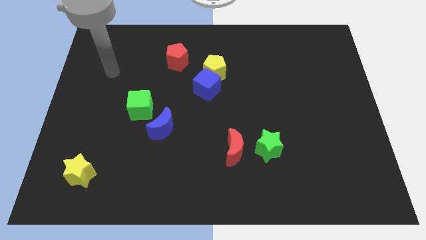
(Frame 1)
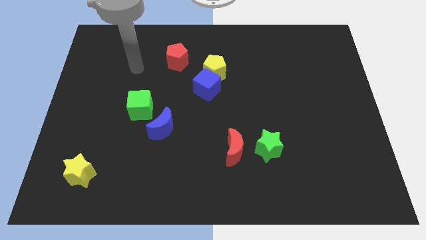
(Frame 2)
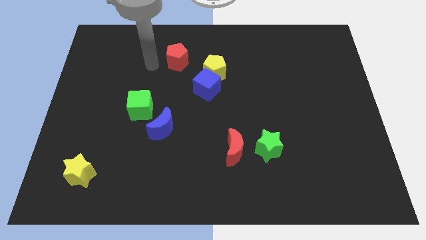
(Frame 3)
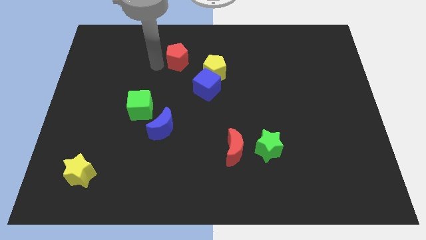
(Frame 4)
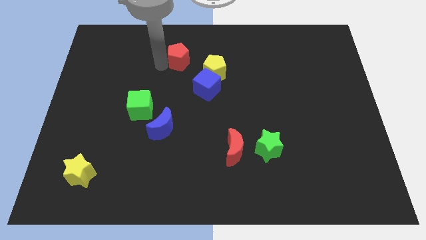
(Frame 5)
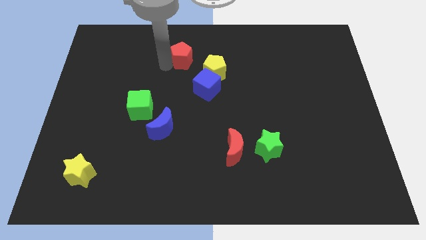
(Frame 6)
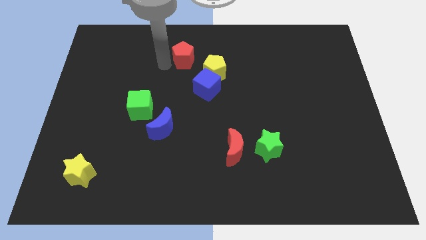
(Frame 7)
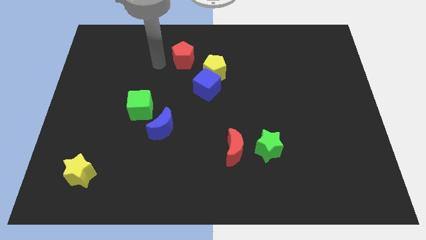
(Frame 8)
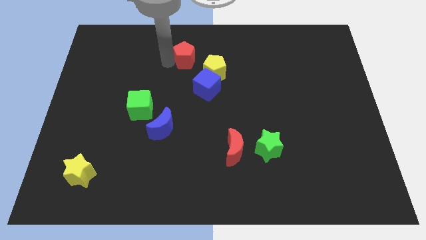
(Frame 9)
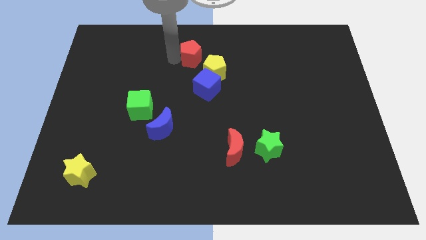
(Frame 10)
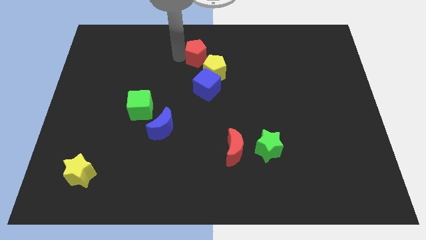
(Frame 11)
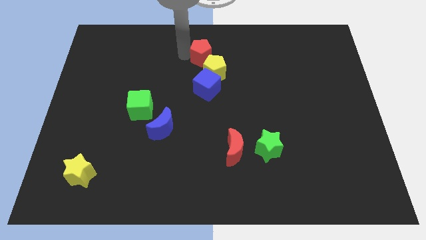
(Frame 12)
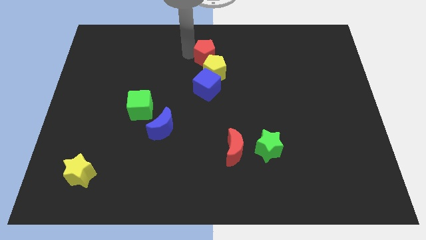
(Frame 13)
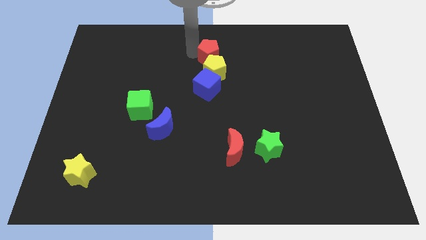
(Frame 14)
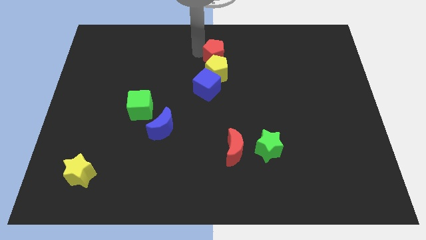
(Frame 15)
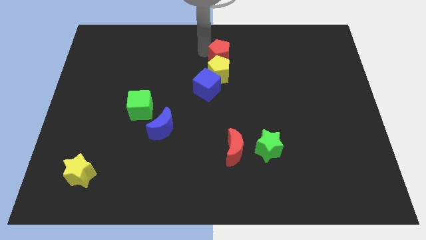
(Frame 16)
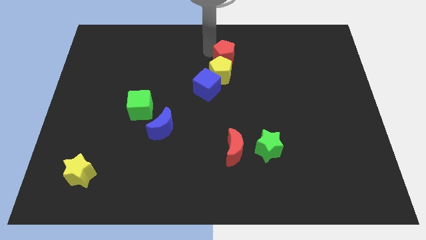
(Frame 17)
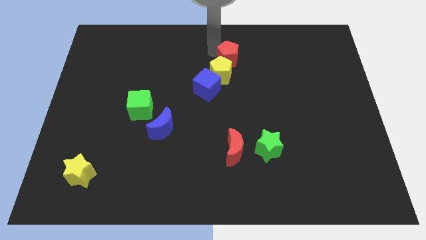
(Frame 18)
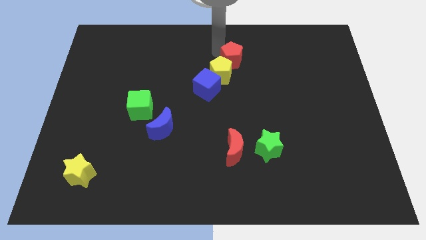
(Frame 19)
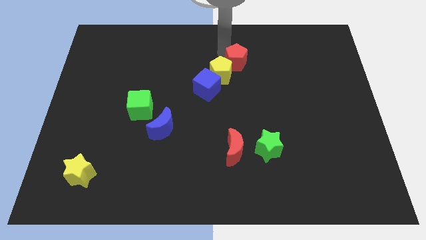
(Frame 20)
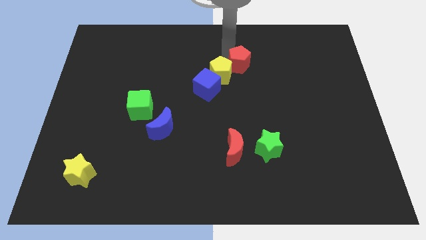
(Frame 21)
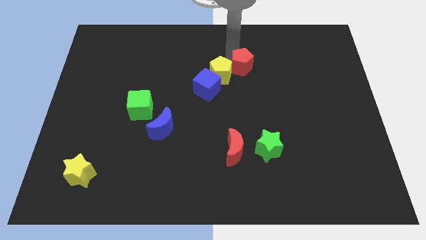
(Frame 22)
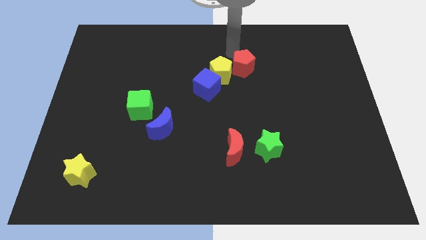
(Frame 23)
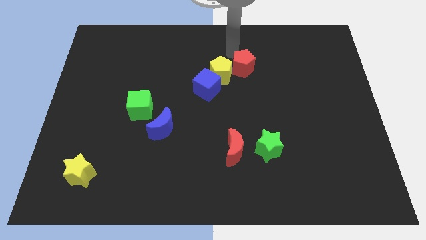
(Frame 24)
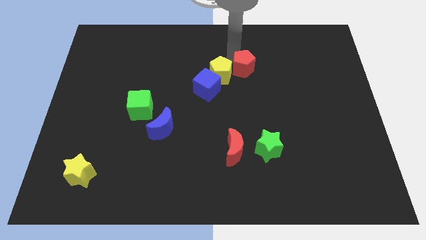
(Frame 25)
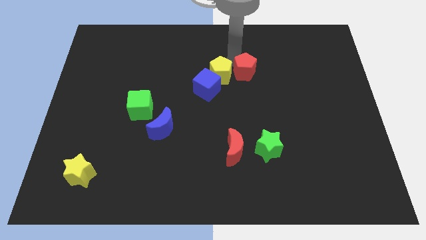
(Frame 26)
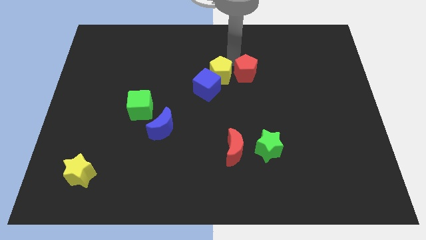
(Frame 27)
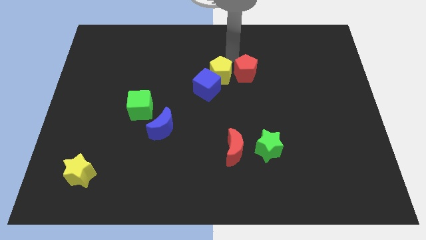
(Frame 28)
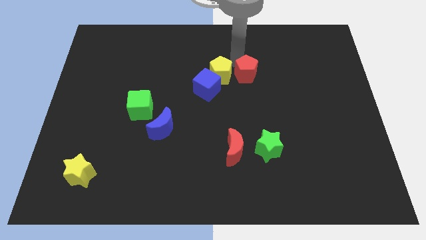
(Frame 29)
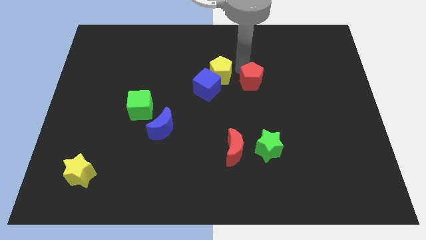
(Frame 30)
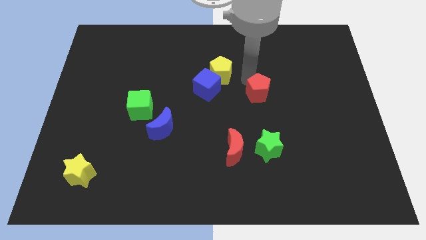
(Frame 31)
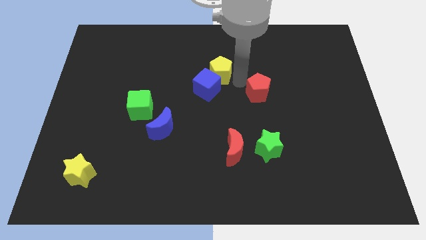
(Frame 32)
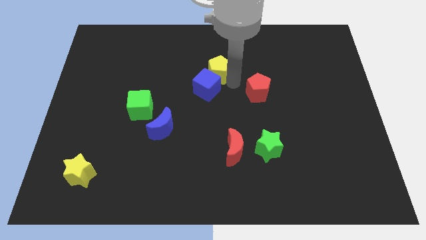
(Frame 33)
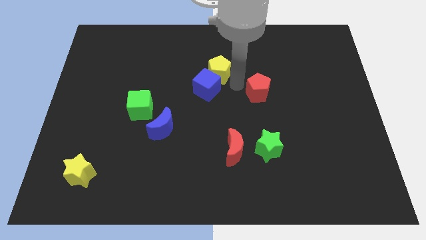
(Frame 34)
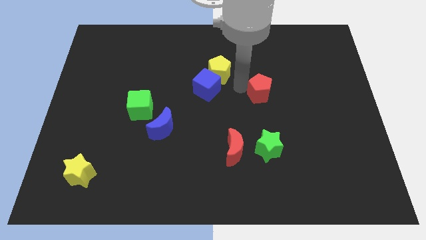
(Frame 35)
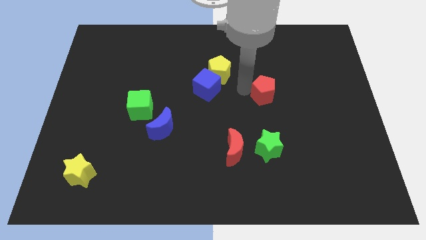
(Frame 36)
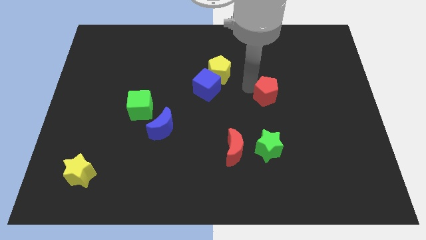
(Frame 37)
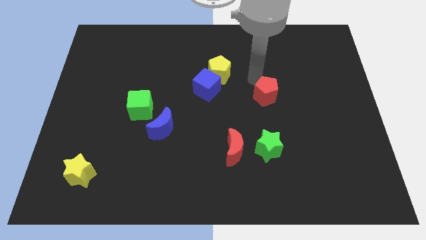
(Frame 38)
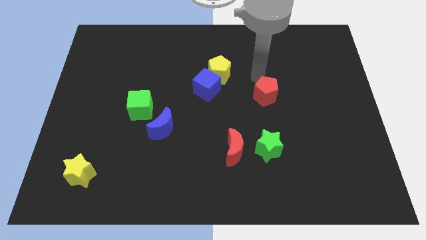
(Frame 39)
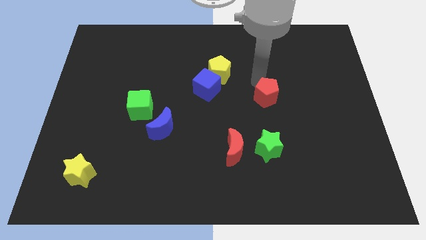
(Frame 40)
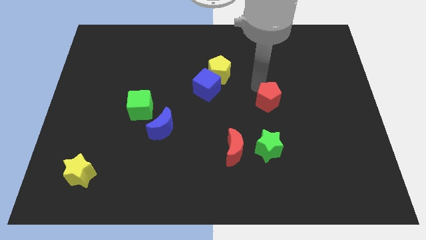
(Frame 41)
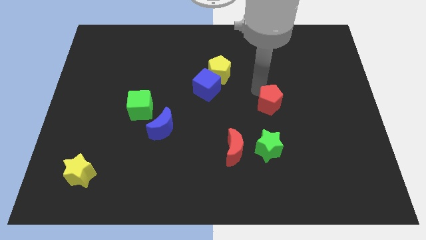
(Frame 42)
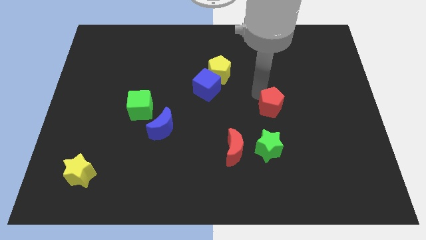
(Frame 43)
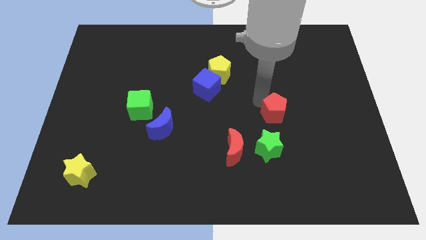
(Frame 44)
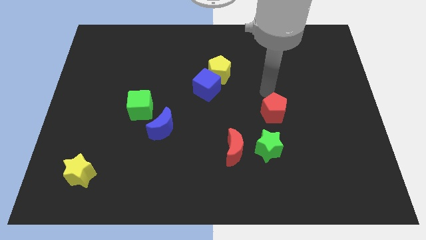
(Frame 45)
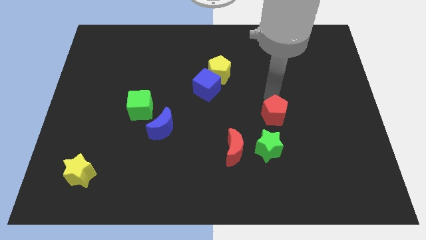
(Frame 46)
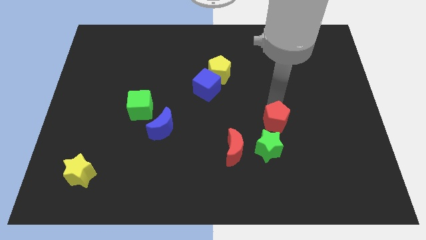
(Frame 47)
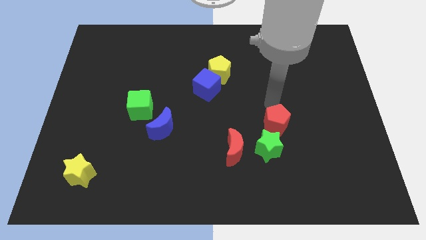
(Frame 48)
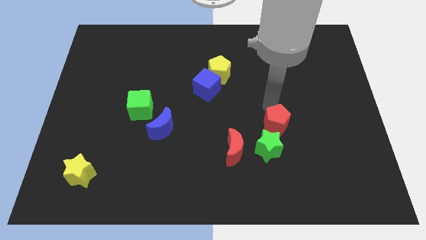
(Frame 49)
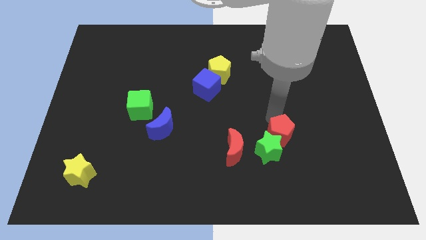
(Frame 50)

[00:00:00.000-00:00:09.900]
put the red pentagon to the right of the red moon

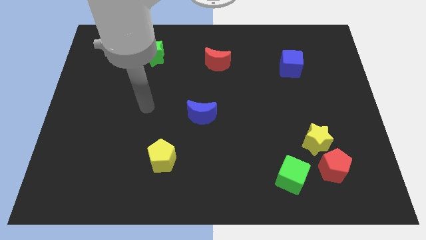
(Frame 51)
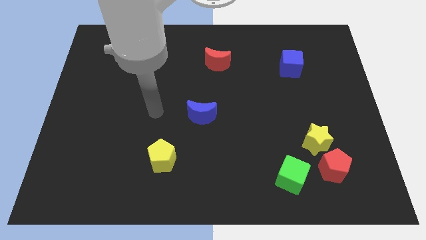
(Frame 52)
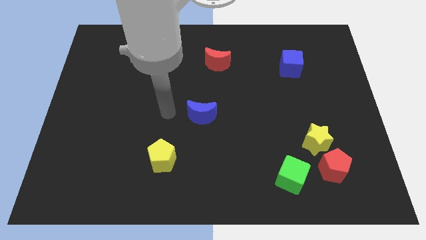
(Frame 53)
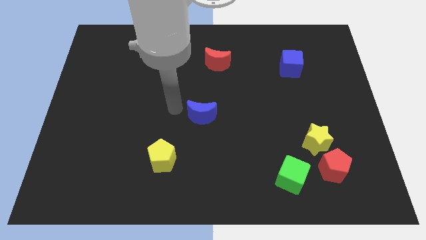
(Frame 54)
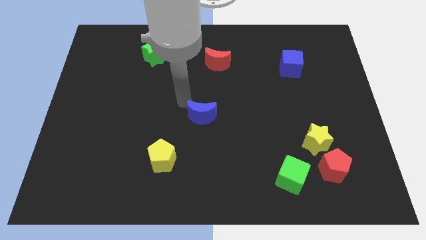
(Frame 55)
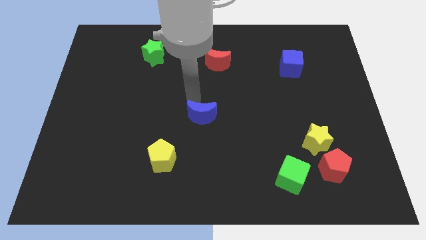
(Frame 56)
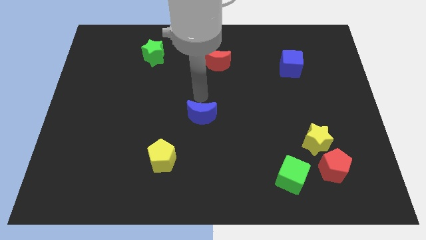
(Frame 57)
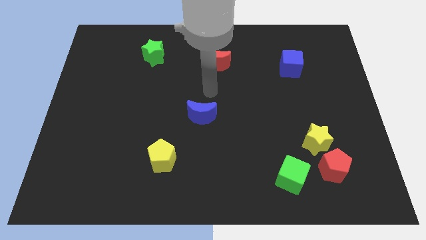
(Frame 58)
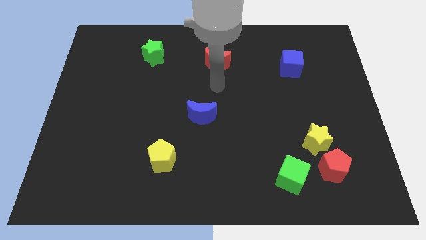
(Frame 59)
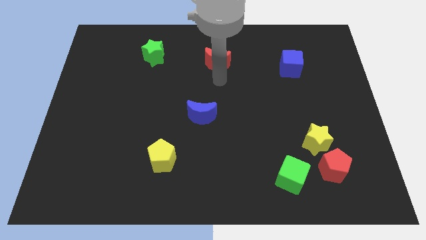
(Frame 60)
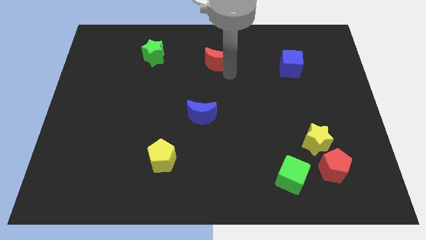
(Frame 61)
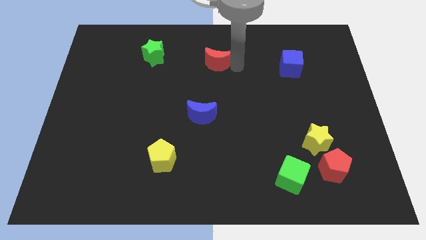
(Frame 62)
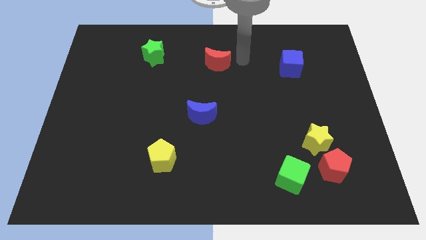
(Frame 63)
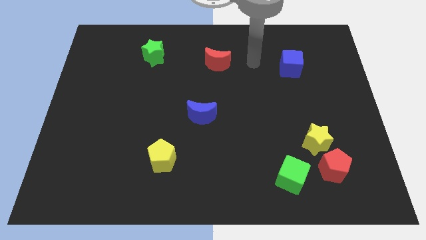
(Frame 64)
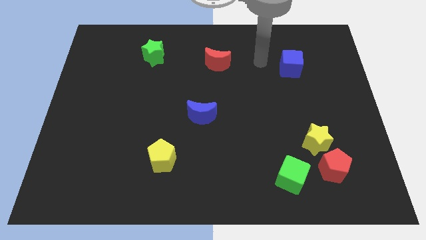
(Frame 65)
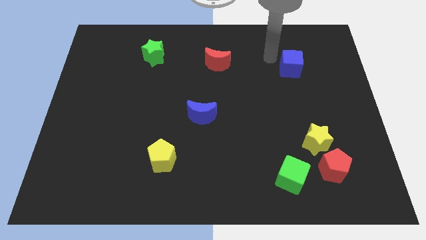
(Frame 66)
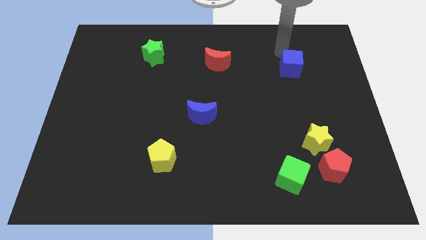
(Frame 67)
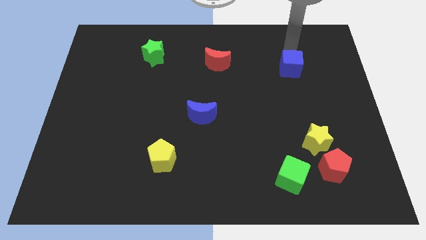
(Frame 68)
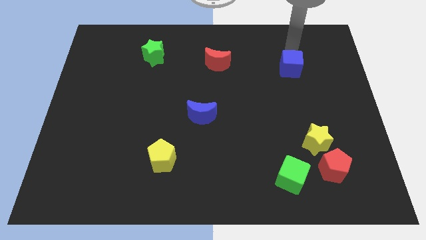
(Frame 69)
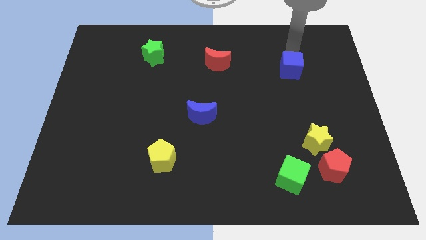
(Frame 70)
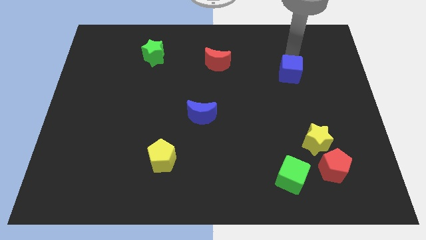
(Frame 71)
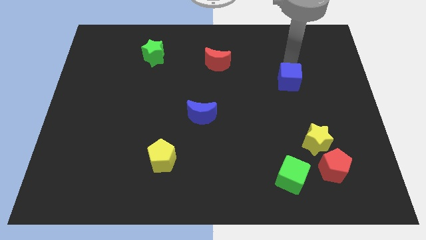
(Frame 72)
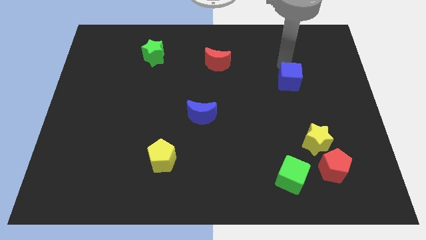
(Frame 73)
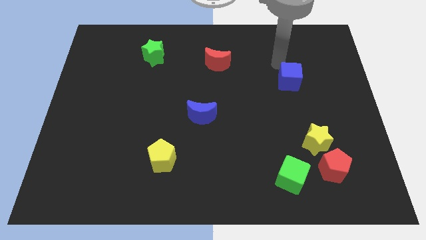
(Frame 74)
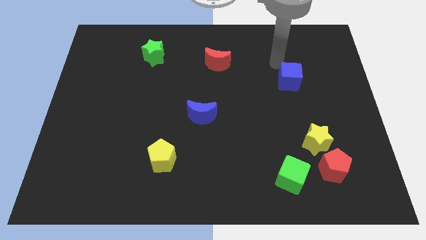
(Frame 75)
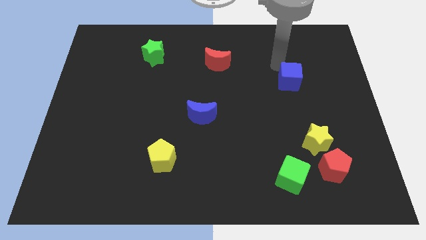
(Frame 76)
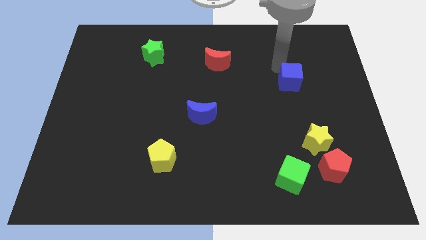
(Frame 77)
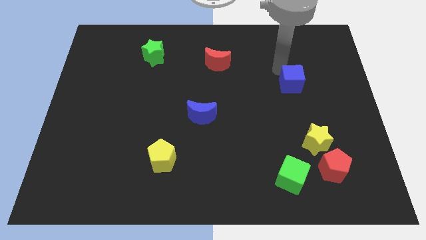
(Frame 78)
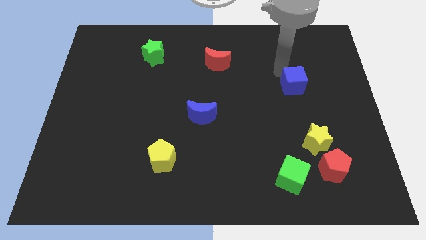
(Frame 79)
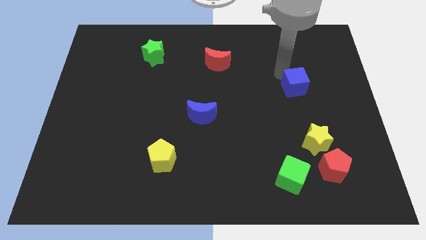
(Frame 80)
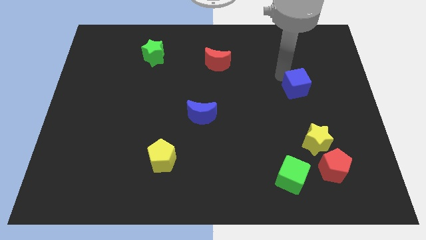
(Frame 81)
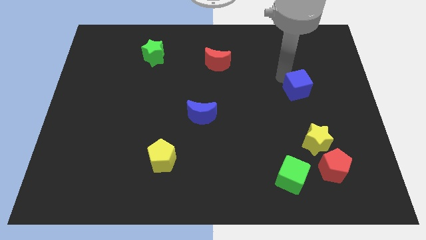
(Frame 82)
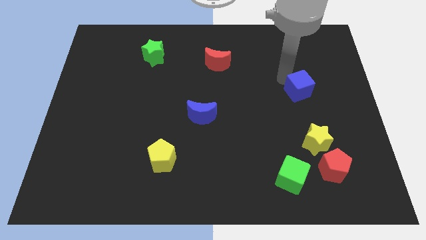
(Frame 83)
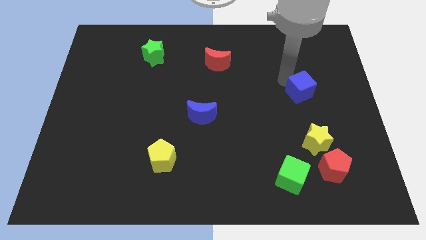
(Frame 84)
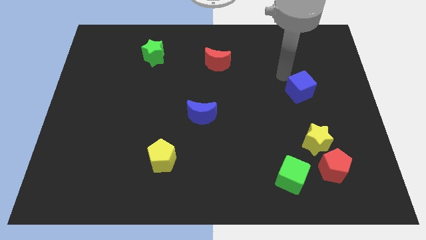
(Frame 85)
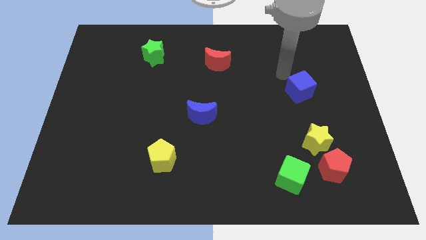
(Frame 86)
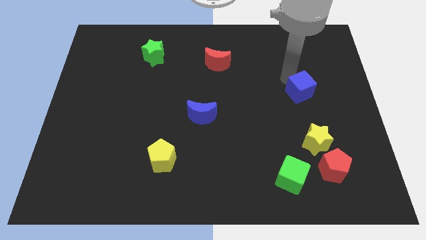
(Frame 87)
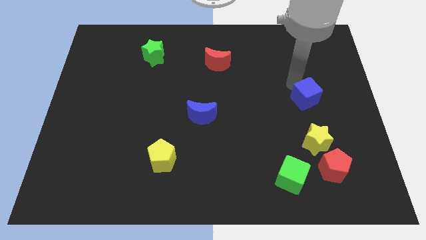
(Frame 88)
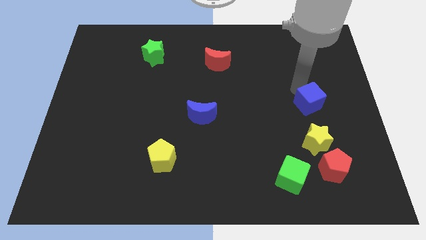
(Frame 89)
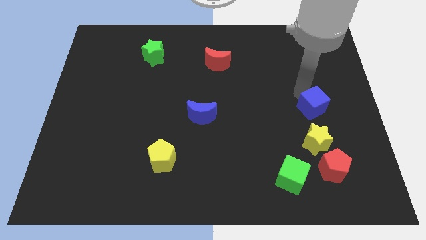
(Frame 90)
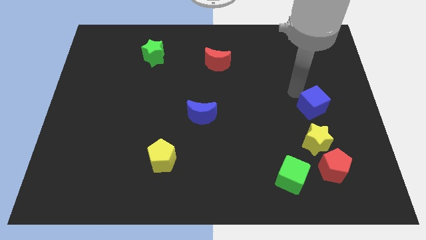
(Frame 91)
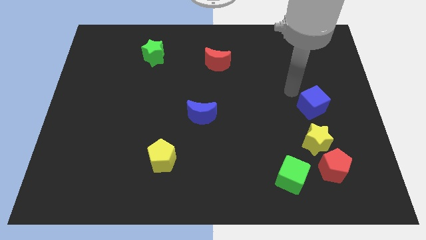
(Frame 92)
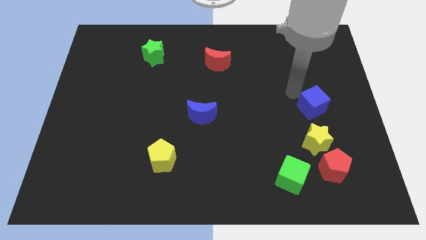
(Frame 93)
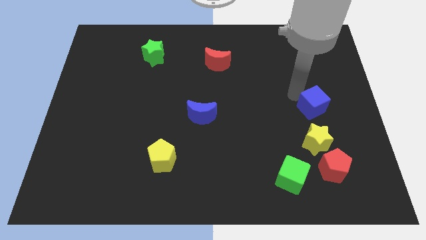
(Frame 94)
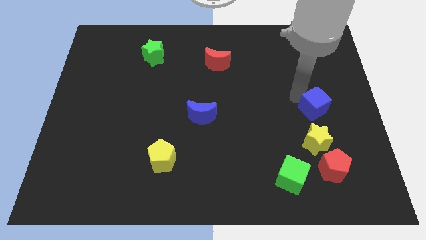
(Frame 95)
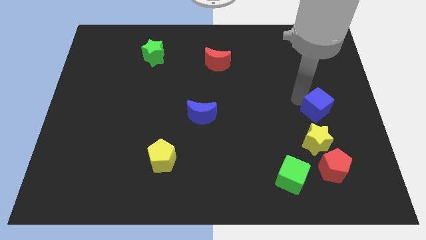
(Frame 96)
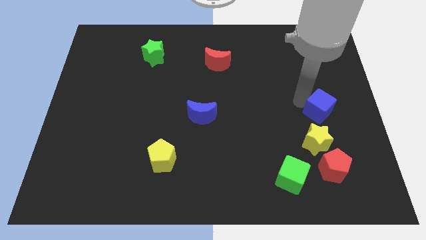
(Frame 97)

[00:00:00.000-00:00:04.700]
move the blue cube to the top right side of the yellow star
